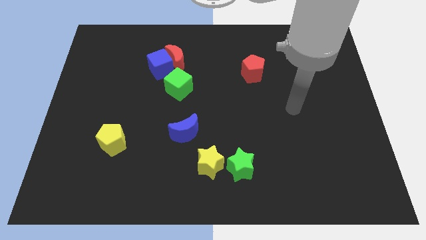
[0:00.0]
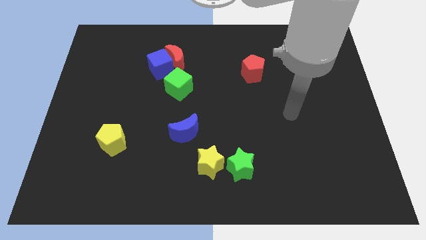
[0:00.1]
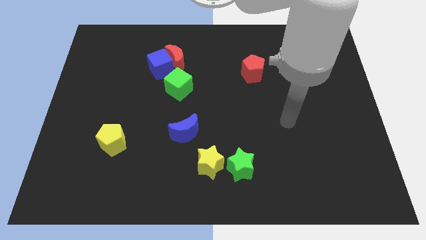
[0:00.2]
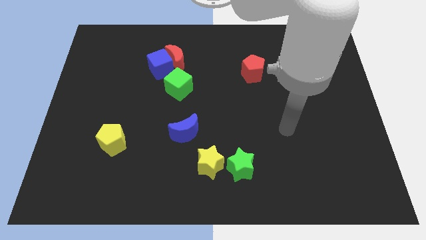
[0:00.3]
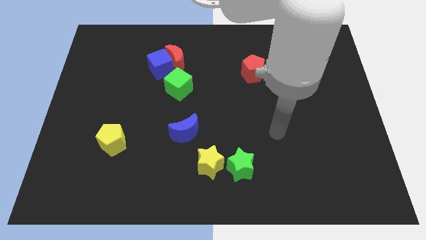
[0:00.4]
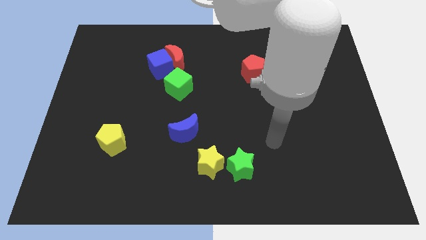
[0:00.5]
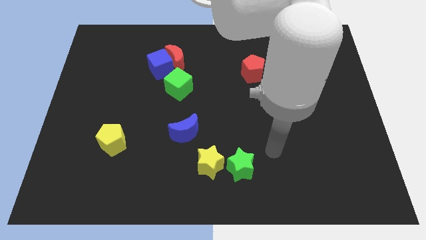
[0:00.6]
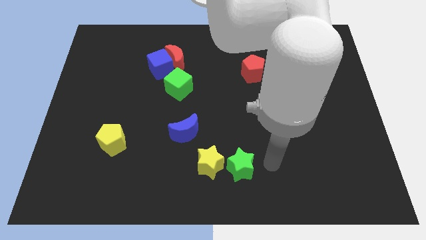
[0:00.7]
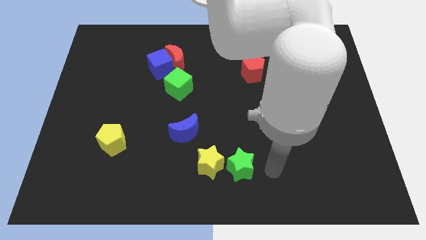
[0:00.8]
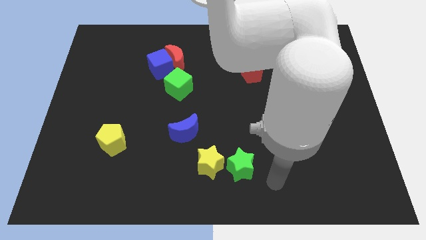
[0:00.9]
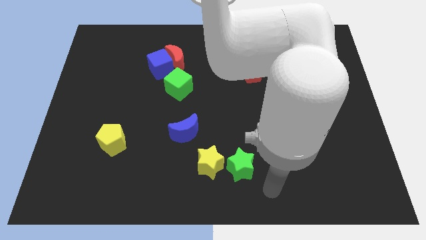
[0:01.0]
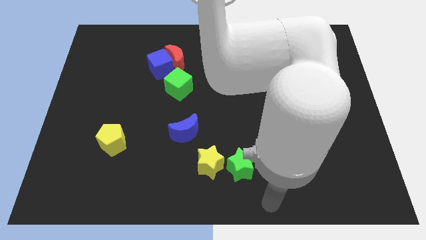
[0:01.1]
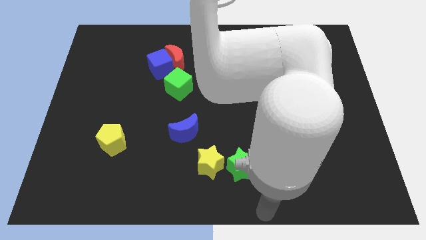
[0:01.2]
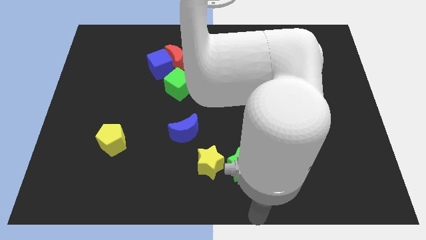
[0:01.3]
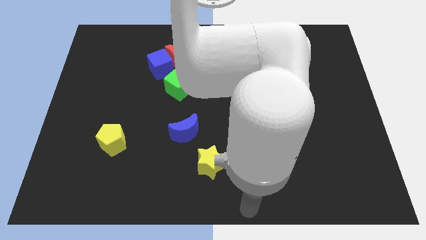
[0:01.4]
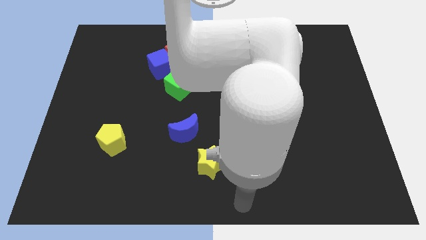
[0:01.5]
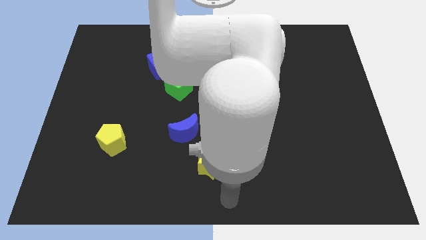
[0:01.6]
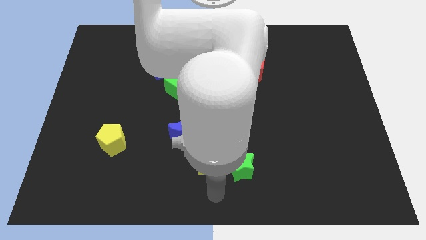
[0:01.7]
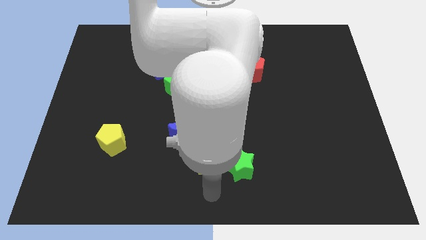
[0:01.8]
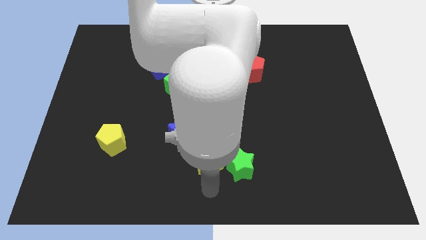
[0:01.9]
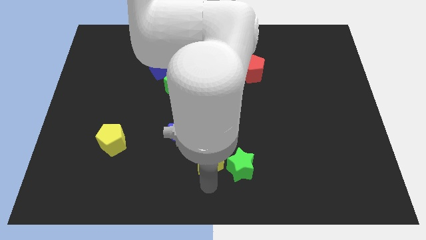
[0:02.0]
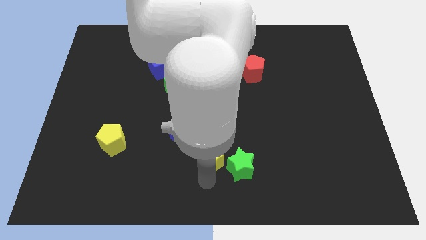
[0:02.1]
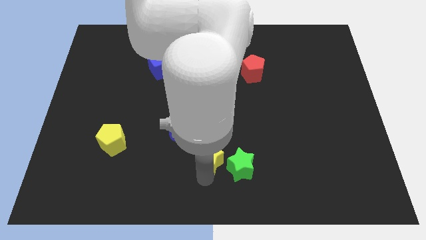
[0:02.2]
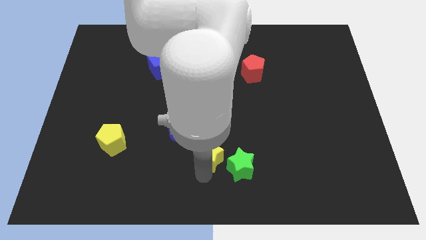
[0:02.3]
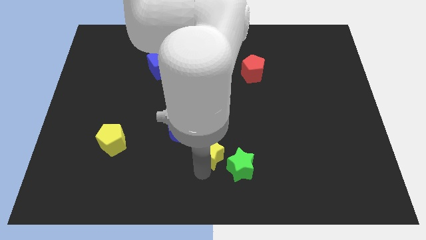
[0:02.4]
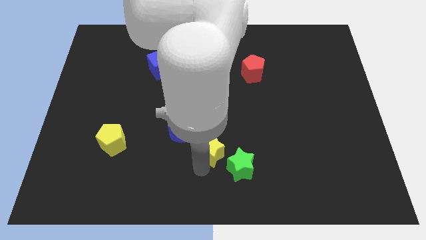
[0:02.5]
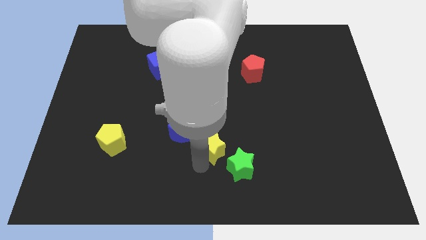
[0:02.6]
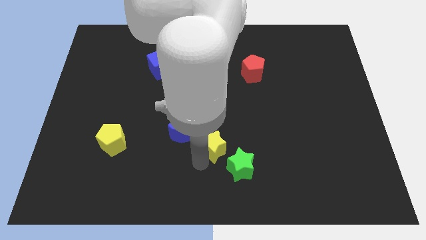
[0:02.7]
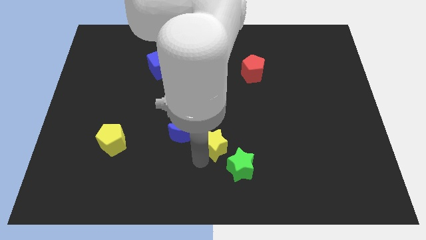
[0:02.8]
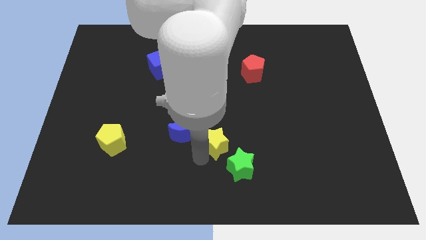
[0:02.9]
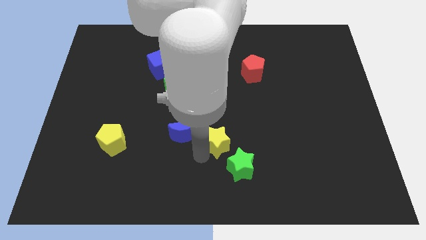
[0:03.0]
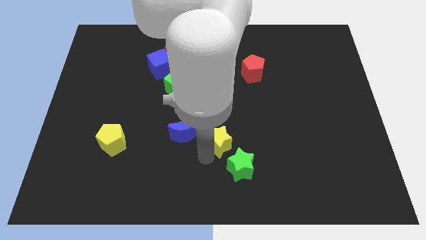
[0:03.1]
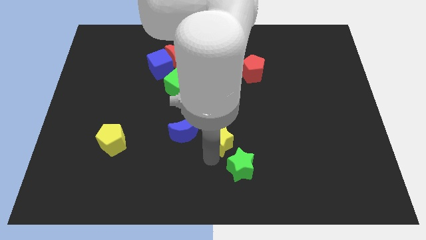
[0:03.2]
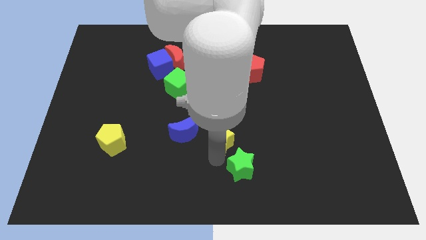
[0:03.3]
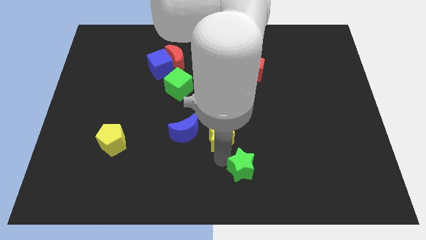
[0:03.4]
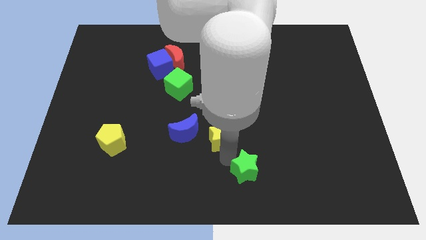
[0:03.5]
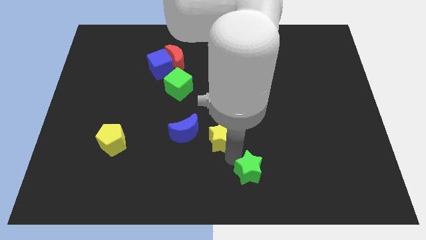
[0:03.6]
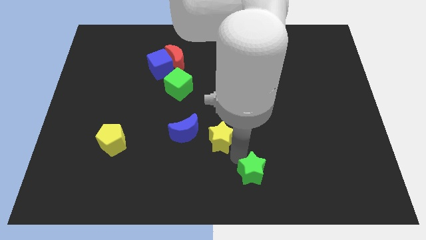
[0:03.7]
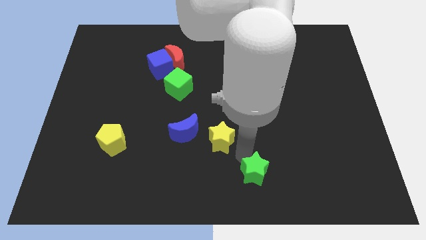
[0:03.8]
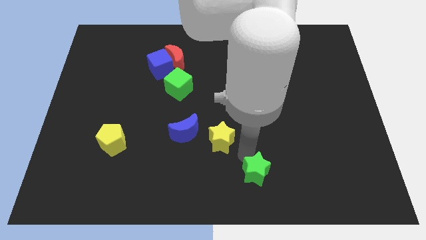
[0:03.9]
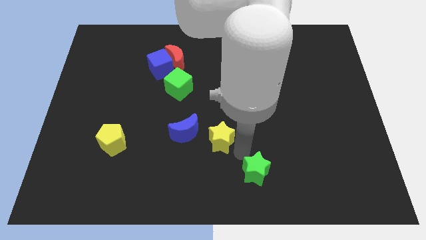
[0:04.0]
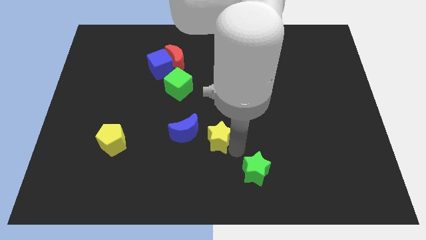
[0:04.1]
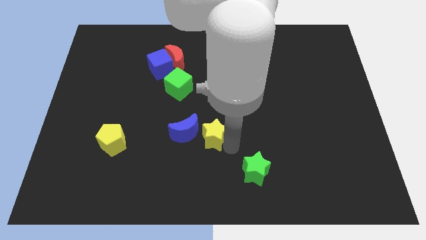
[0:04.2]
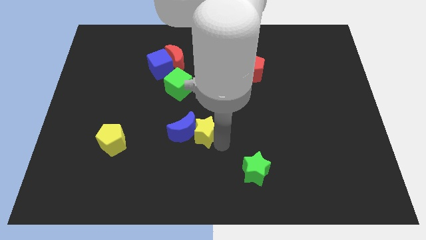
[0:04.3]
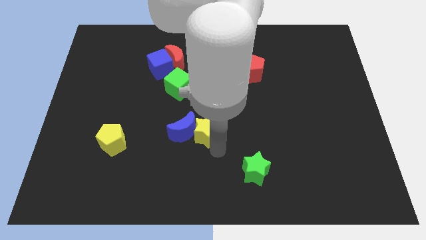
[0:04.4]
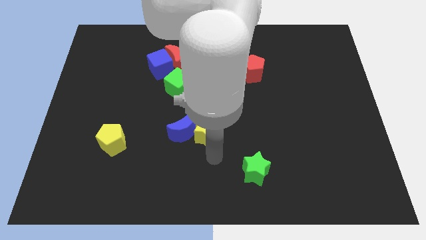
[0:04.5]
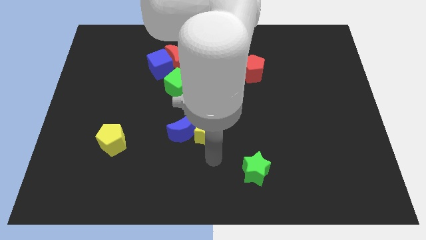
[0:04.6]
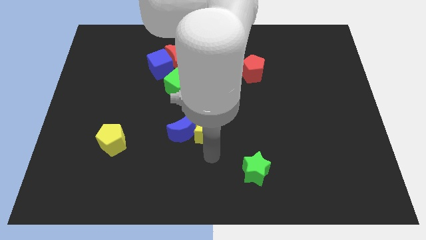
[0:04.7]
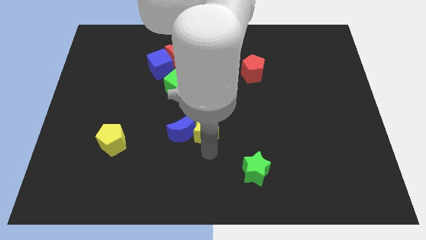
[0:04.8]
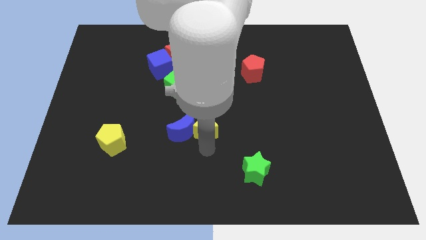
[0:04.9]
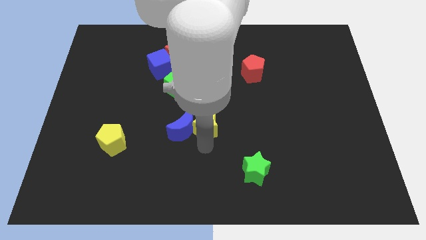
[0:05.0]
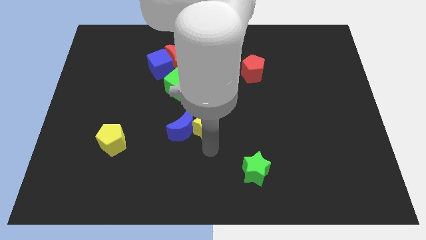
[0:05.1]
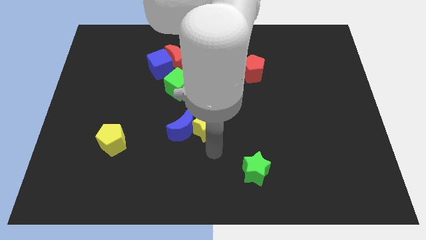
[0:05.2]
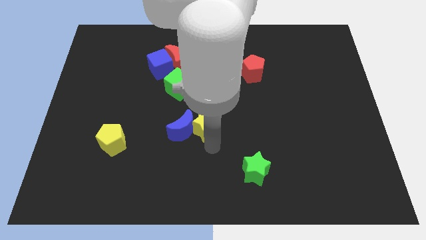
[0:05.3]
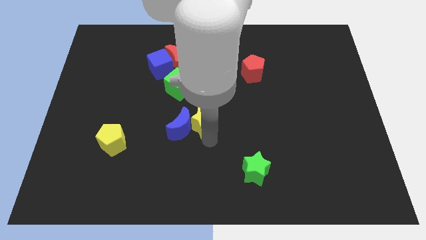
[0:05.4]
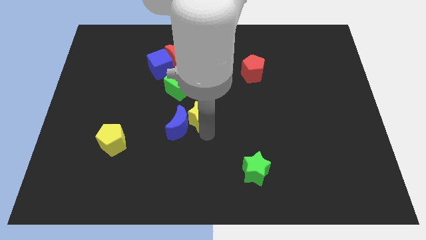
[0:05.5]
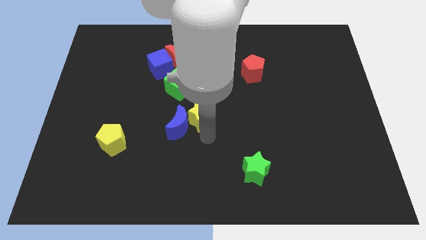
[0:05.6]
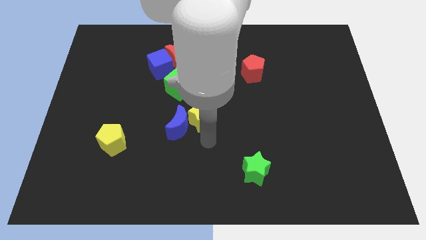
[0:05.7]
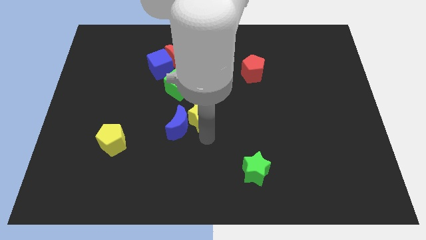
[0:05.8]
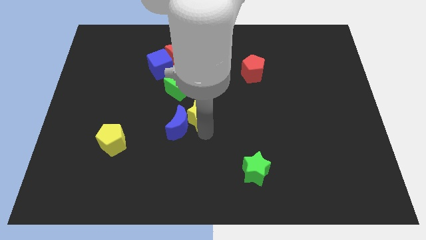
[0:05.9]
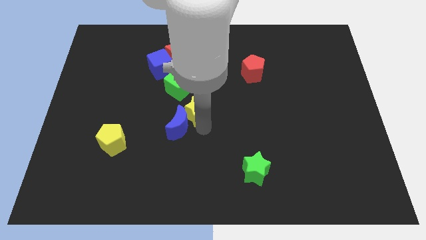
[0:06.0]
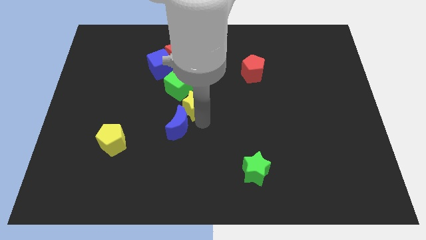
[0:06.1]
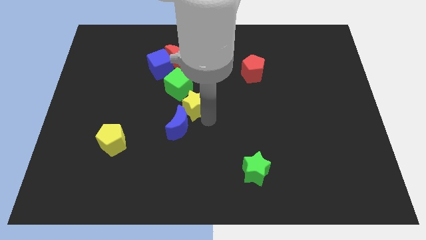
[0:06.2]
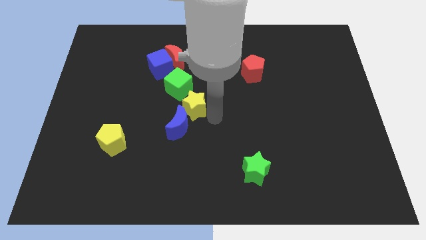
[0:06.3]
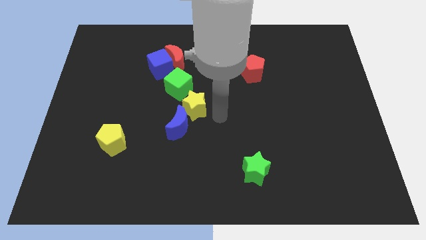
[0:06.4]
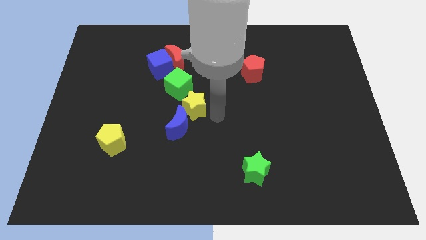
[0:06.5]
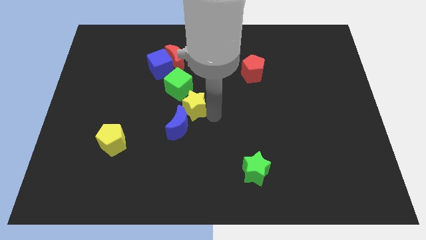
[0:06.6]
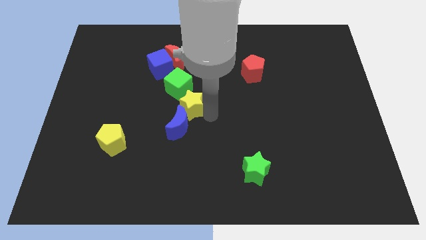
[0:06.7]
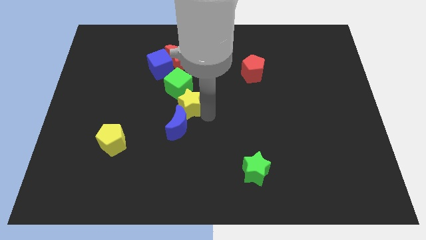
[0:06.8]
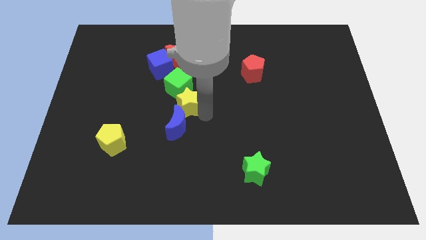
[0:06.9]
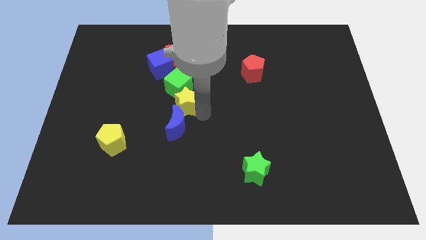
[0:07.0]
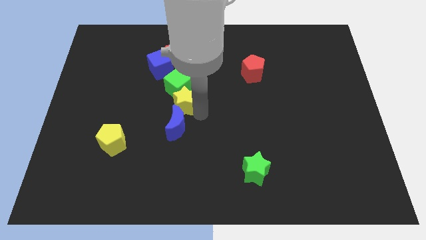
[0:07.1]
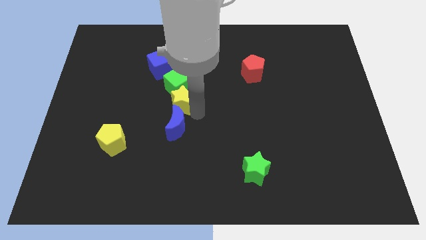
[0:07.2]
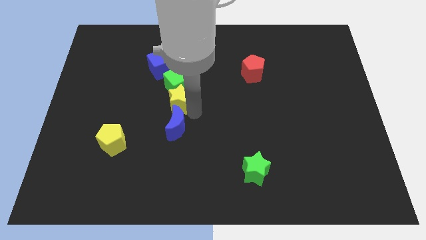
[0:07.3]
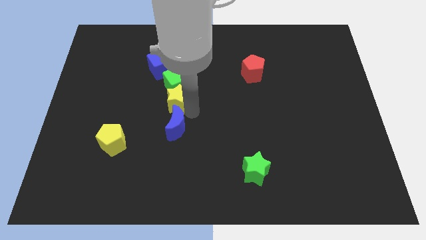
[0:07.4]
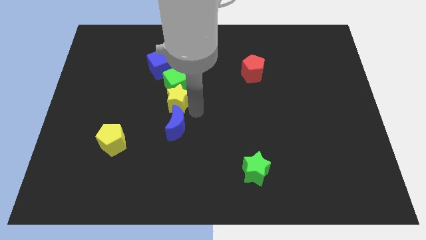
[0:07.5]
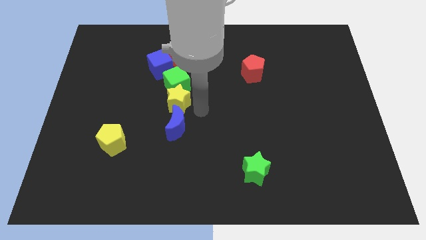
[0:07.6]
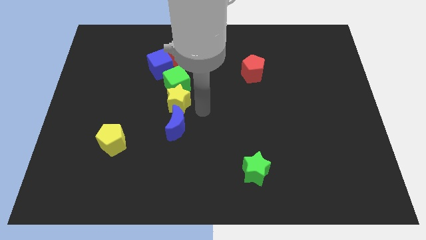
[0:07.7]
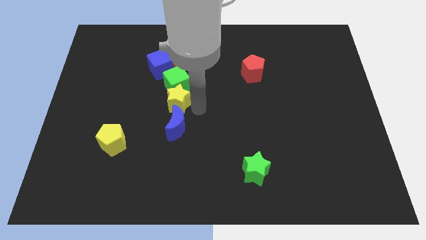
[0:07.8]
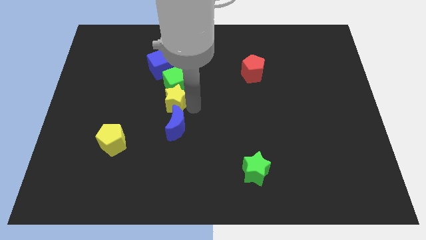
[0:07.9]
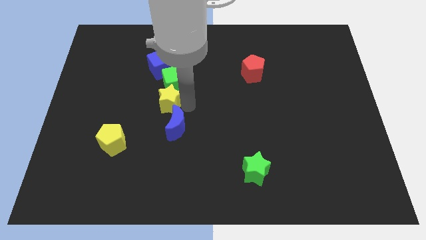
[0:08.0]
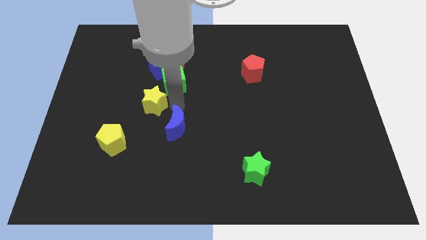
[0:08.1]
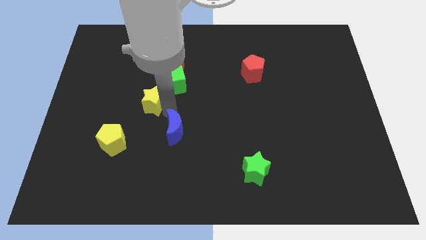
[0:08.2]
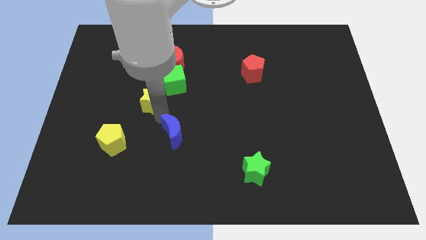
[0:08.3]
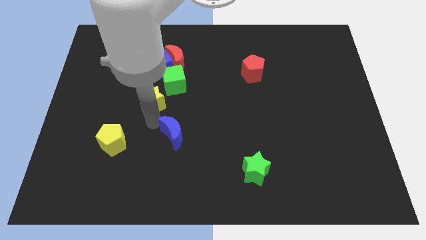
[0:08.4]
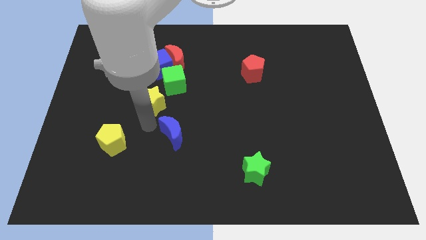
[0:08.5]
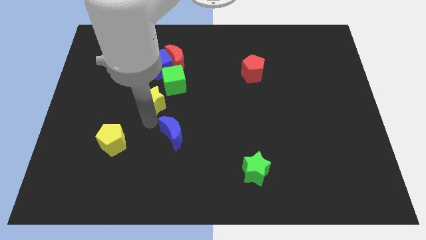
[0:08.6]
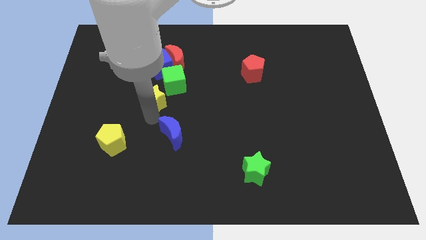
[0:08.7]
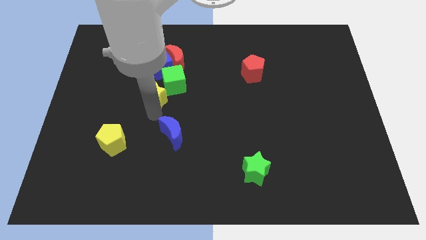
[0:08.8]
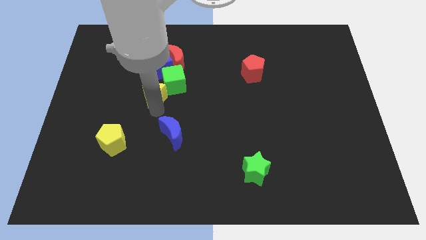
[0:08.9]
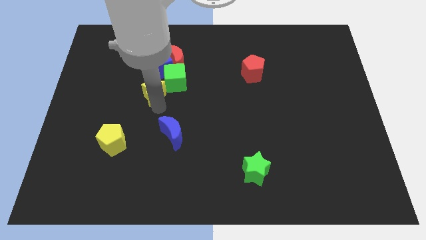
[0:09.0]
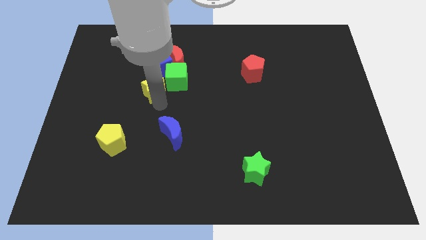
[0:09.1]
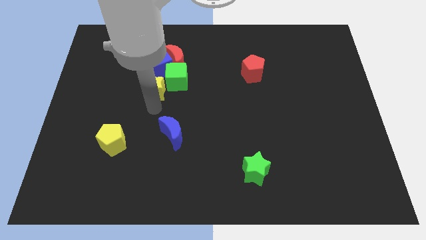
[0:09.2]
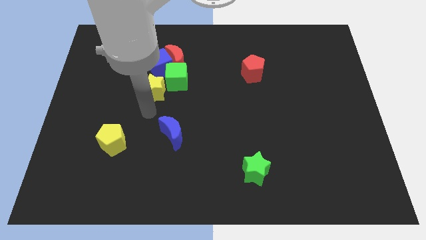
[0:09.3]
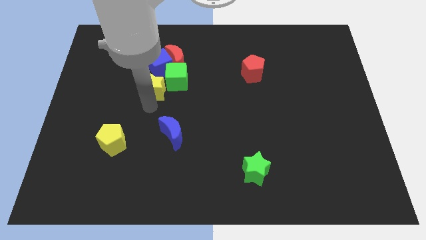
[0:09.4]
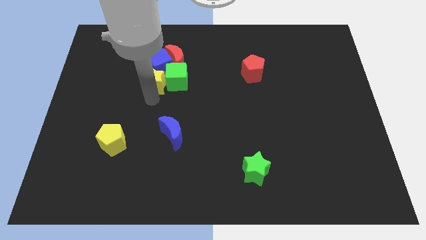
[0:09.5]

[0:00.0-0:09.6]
move the yellow star next to the blue cube
